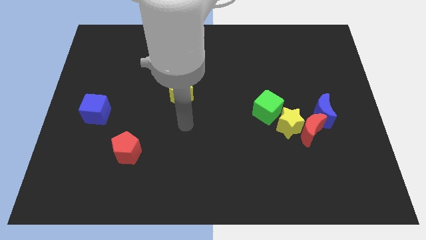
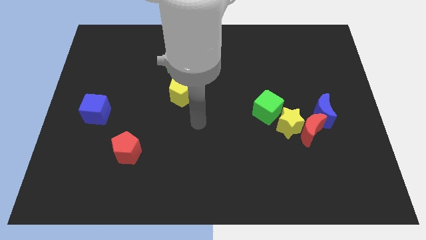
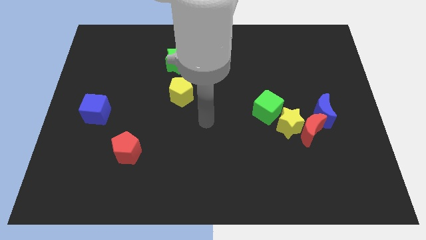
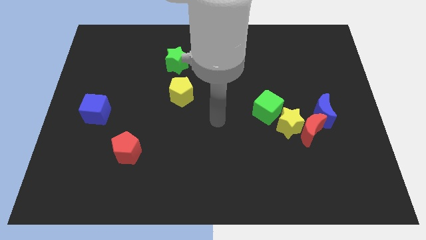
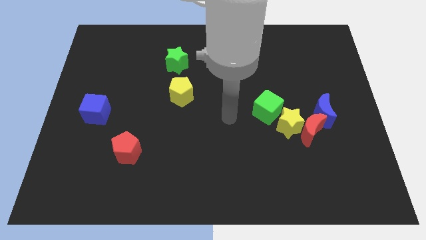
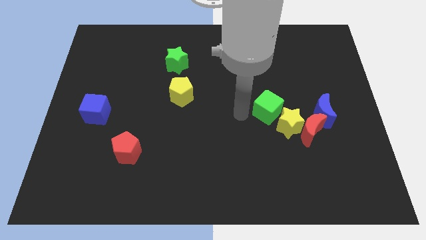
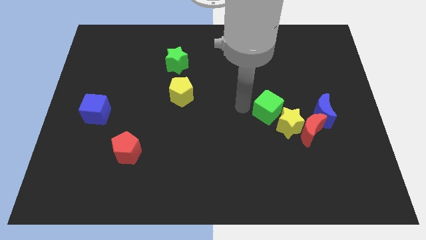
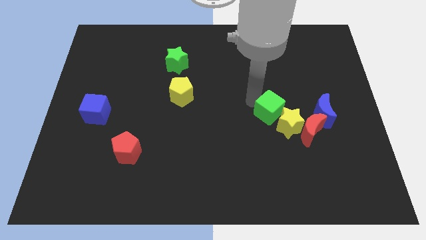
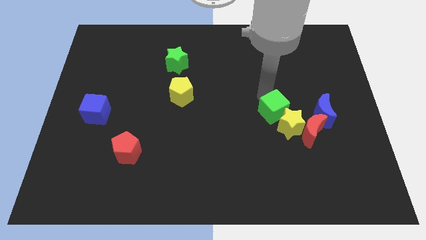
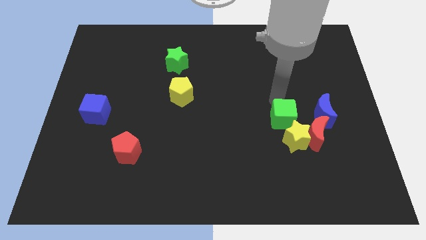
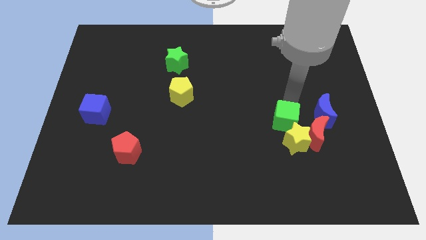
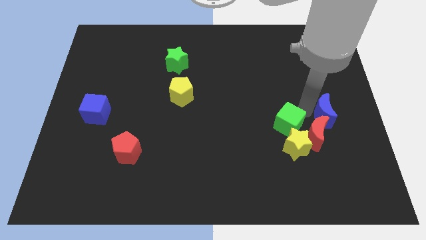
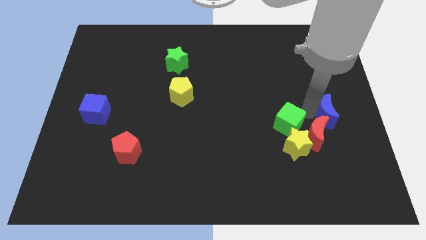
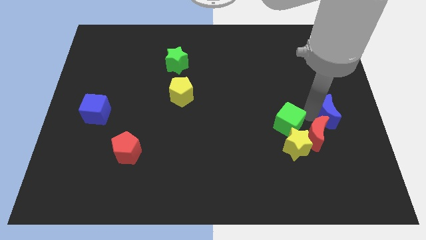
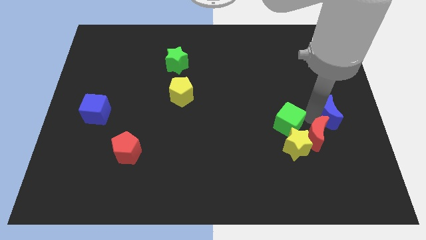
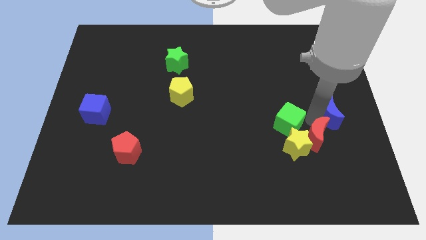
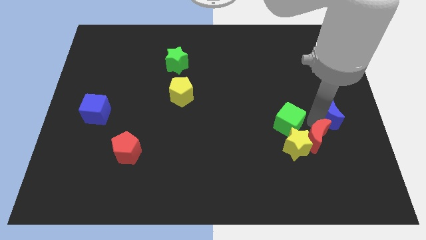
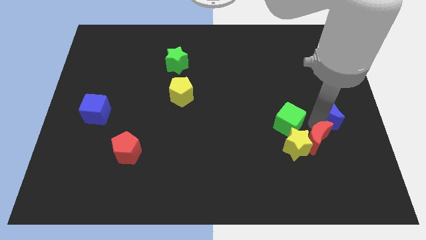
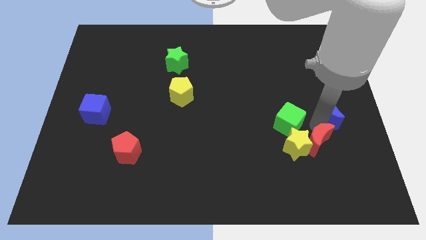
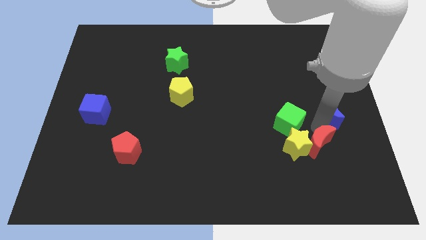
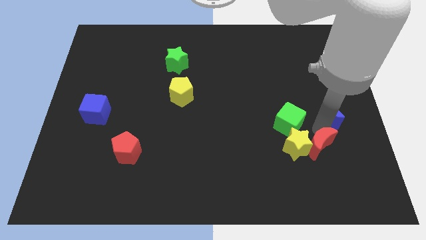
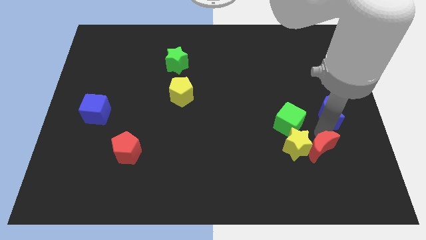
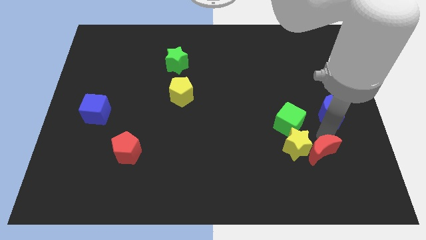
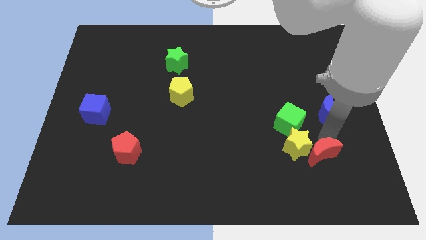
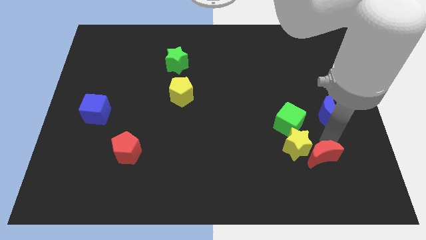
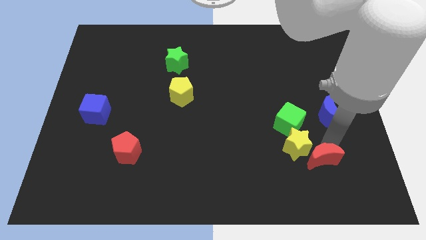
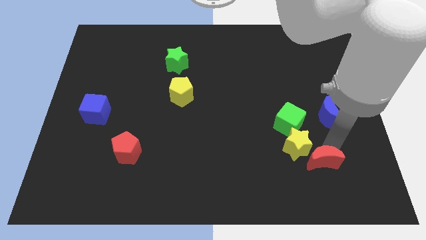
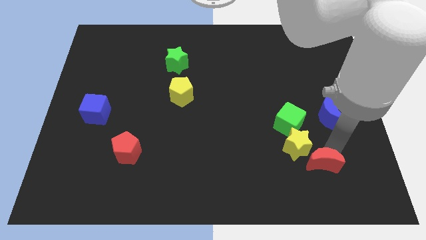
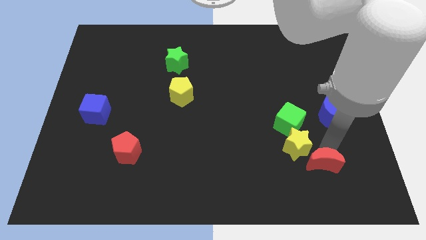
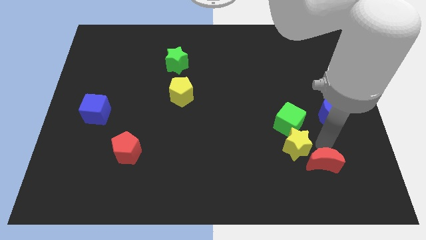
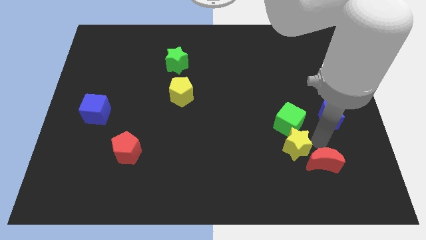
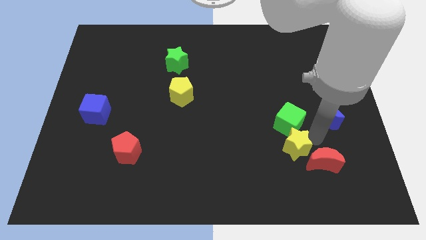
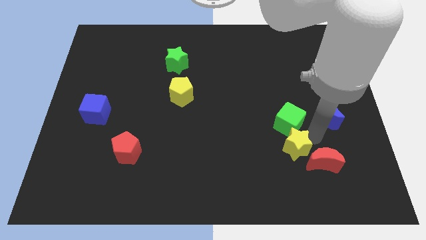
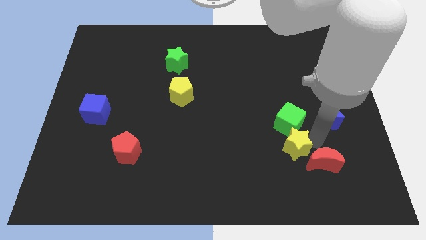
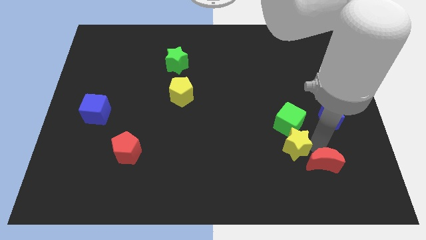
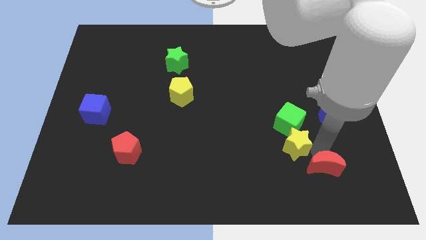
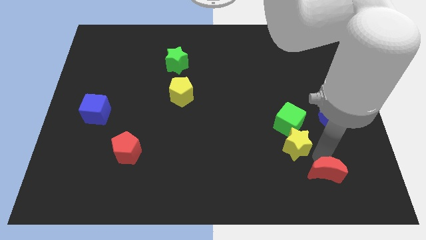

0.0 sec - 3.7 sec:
move the red moon away from the yellow star and blue moon

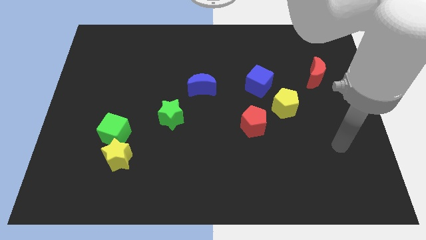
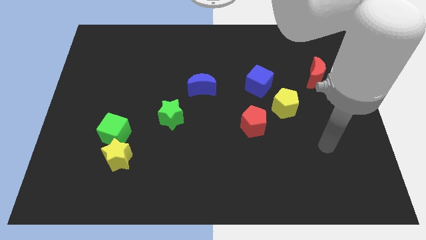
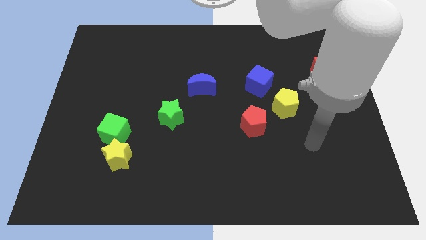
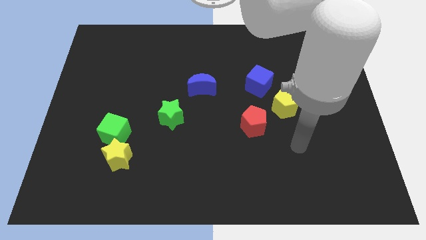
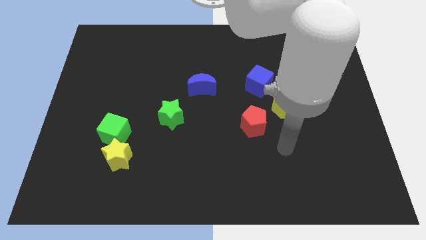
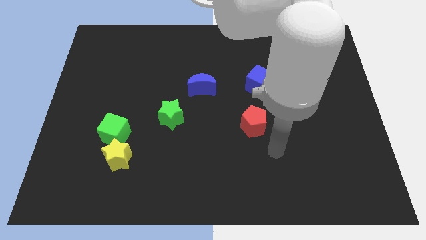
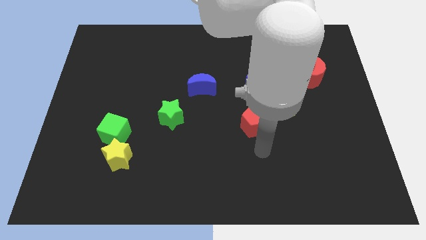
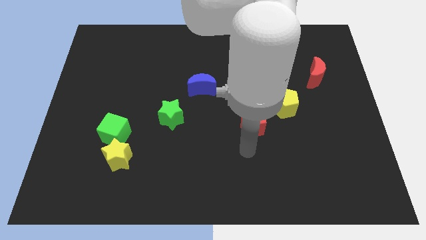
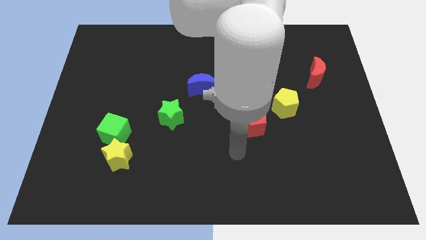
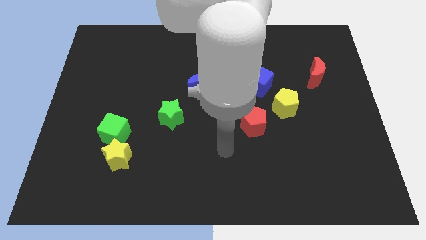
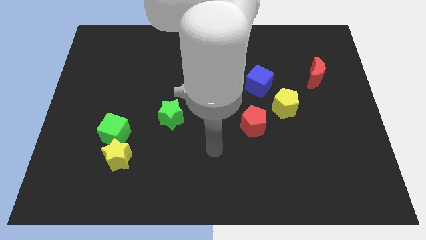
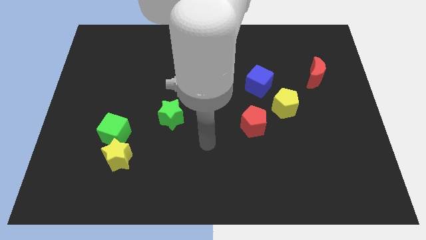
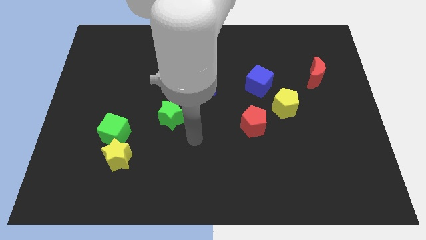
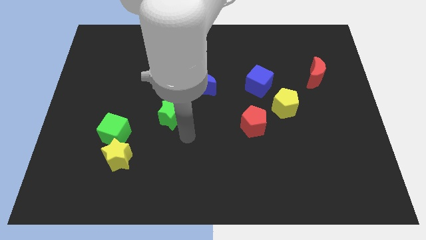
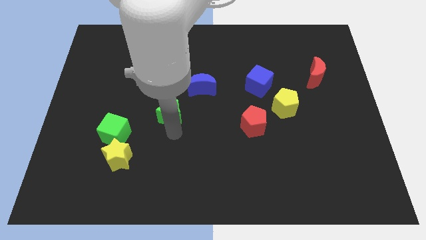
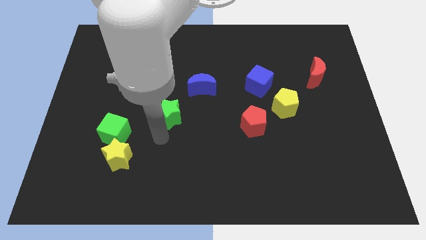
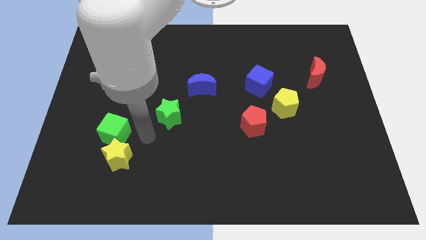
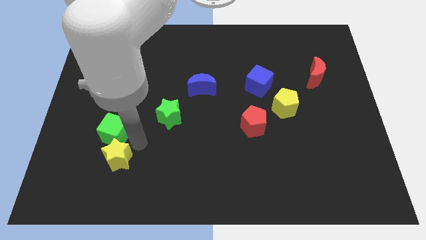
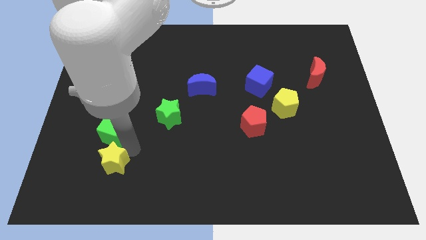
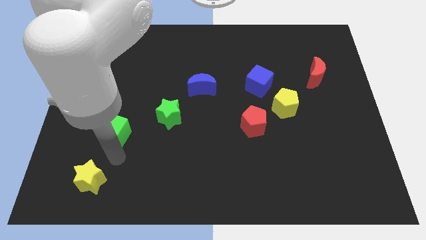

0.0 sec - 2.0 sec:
move the green cube away from the yellow star

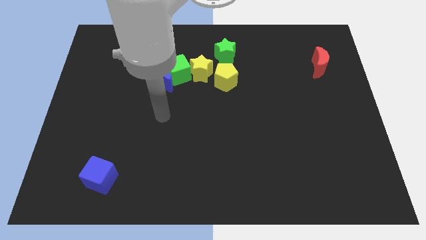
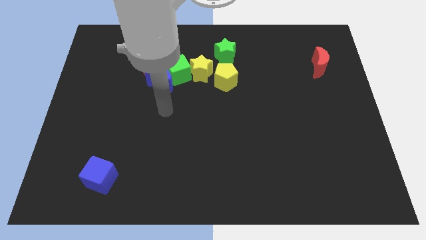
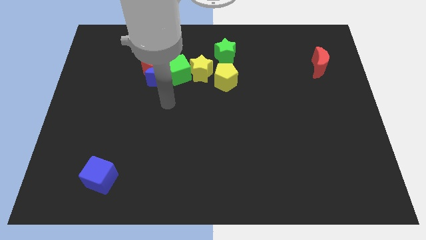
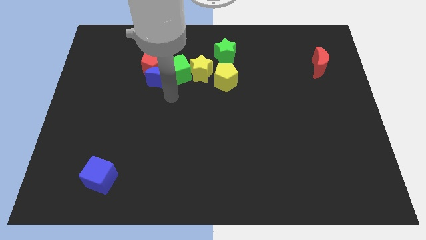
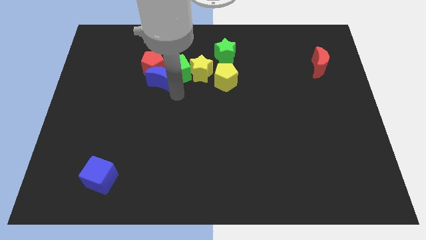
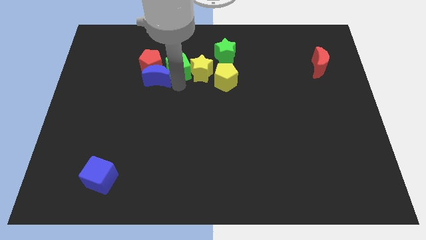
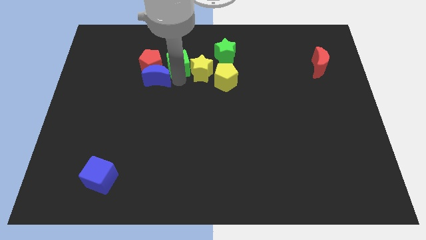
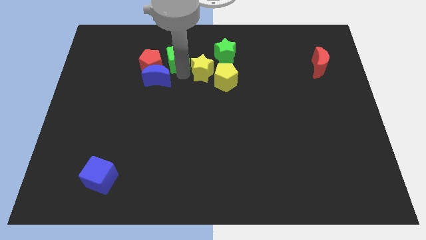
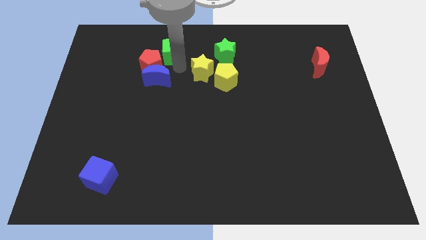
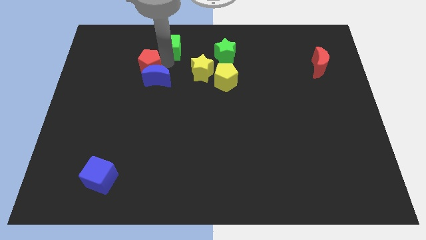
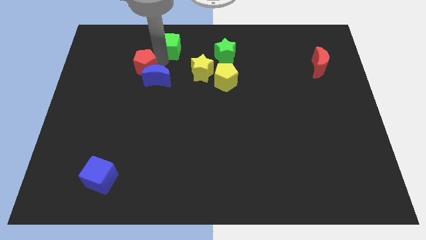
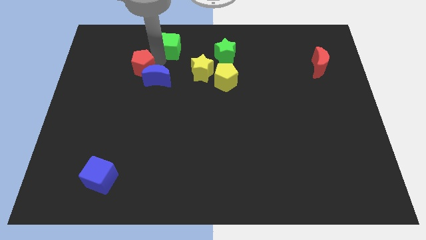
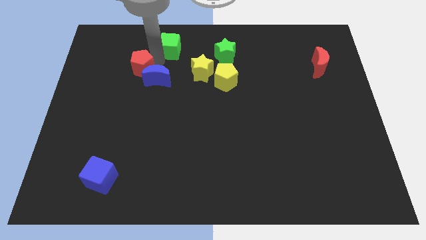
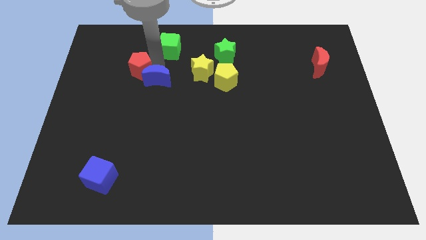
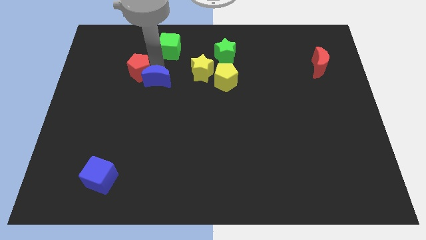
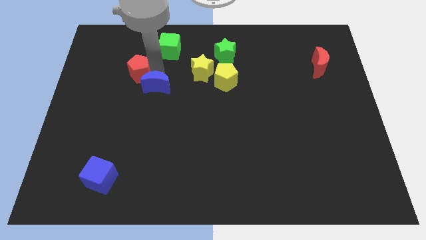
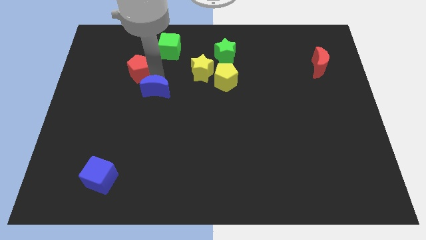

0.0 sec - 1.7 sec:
pull the blue moon apart from the green cube and red pentagon

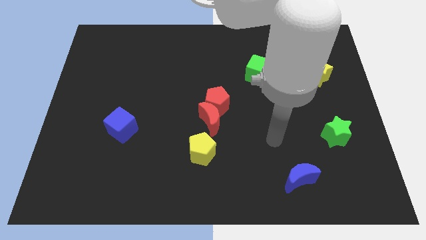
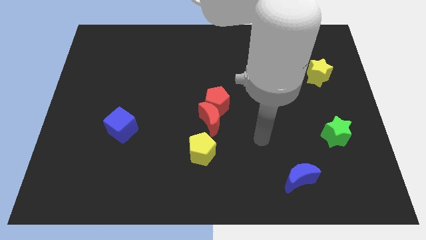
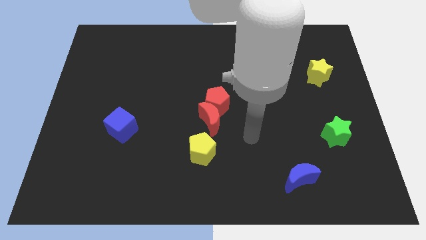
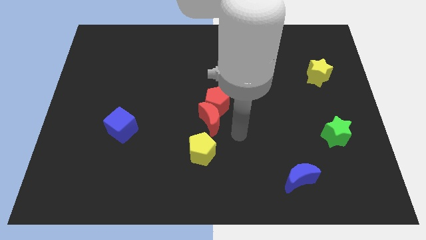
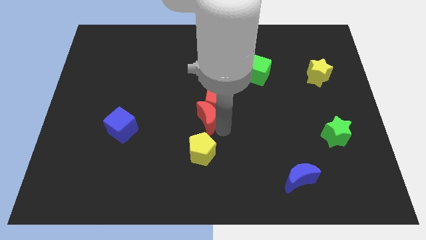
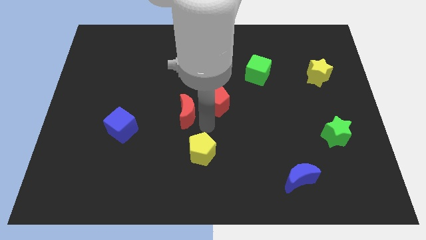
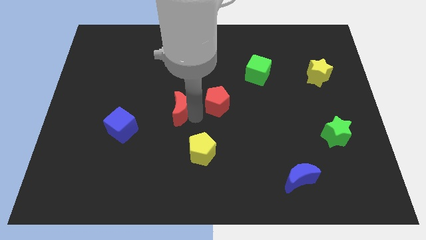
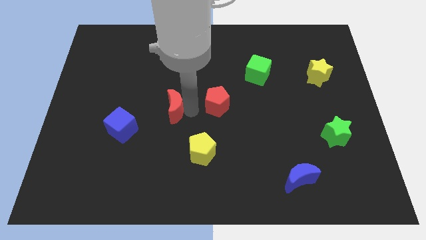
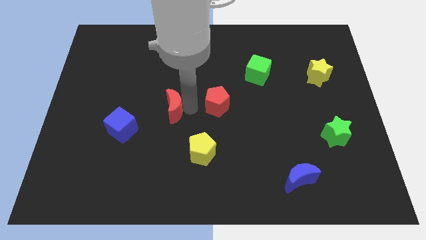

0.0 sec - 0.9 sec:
pull the red pentagon apart from the red moon

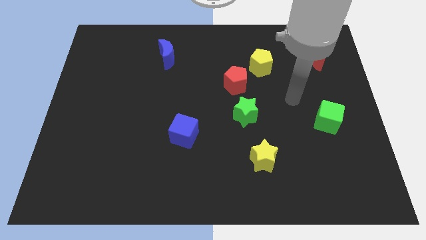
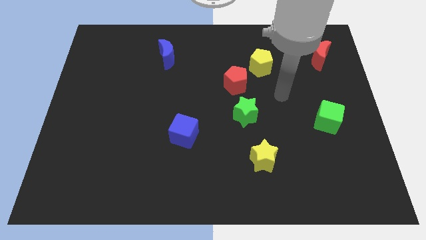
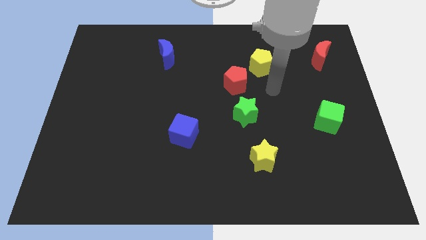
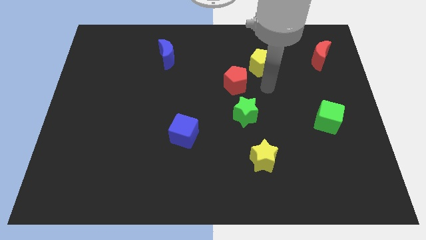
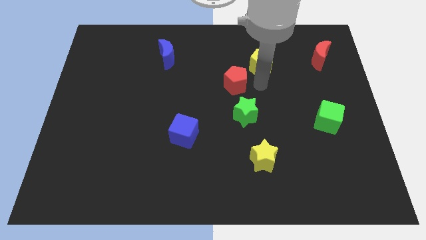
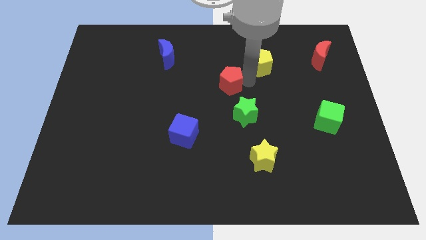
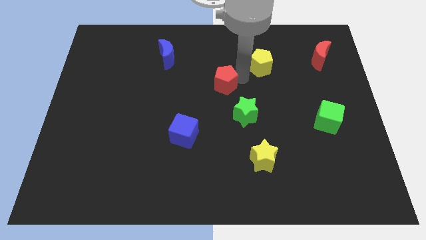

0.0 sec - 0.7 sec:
move the yellow pentagon away from the red pentagon

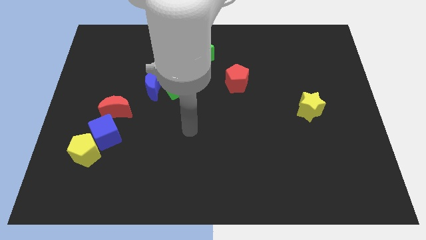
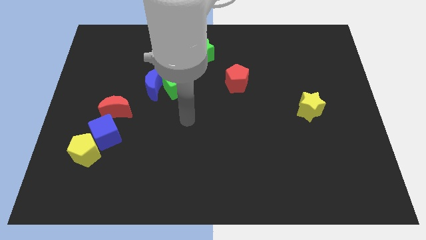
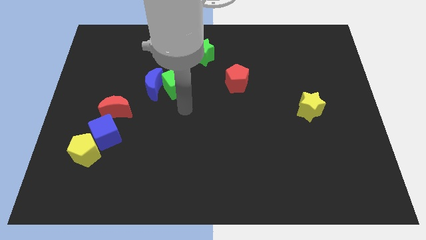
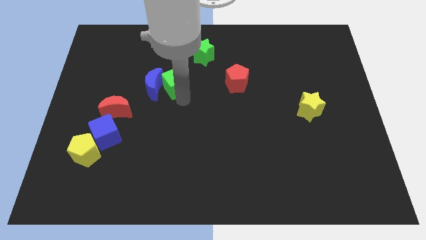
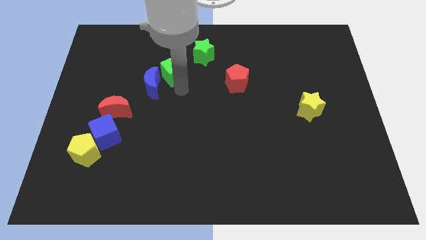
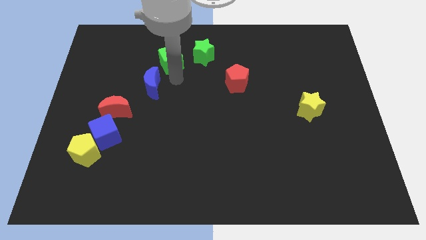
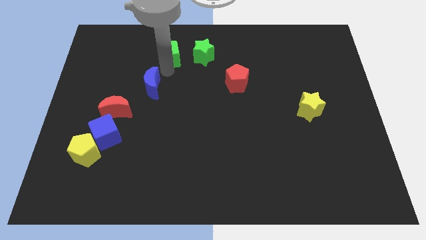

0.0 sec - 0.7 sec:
separate the blue moon from the green cube
